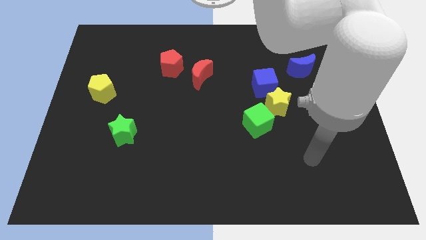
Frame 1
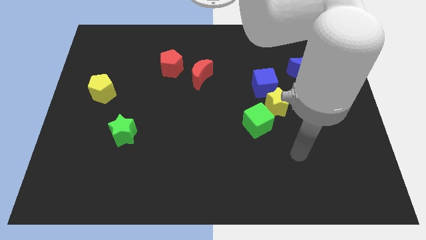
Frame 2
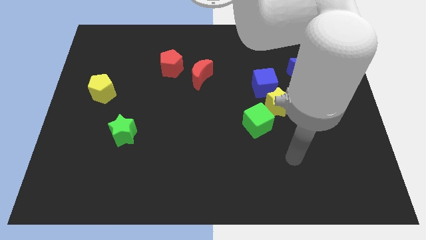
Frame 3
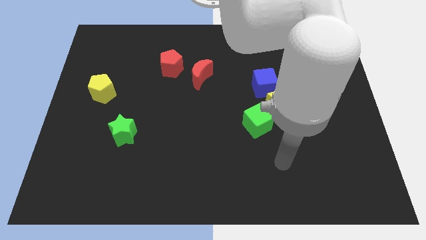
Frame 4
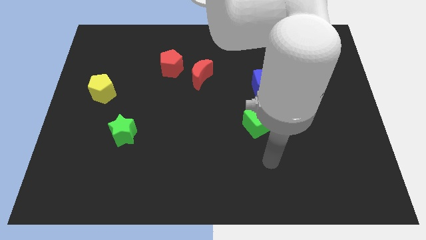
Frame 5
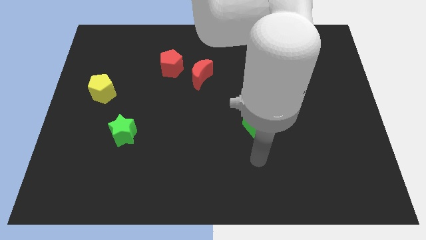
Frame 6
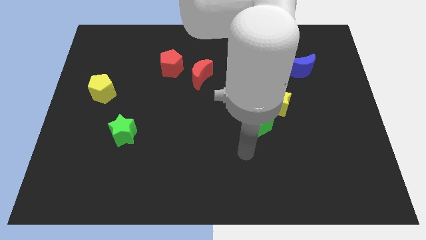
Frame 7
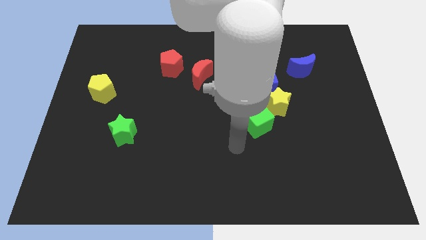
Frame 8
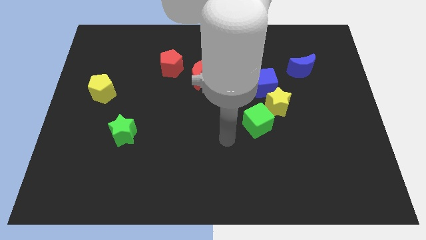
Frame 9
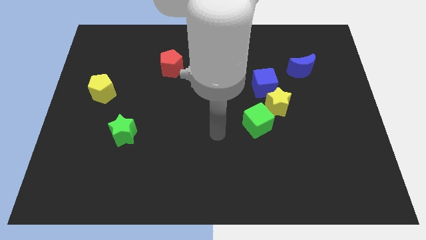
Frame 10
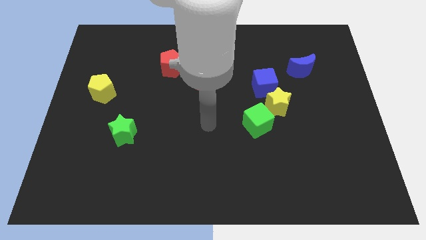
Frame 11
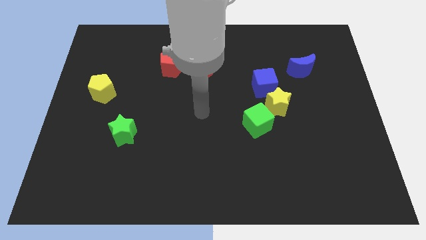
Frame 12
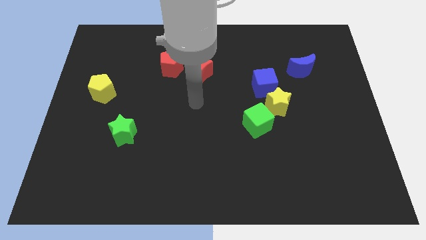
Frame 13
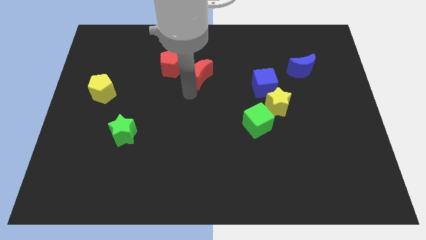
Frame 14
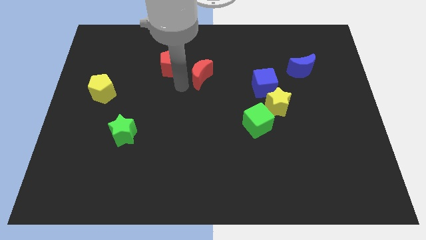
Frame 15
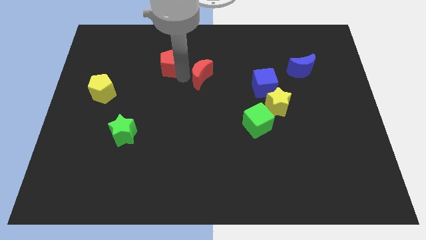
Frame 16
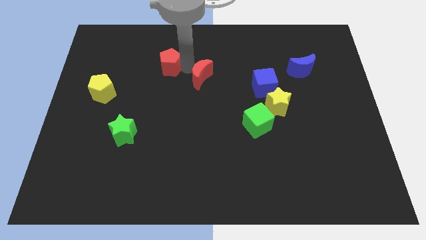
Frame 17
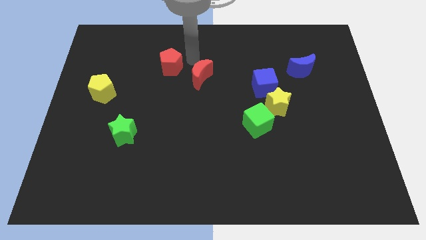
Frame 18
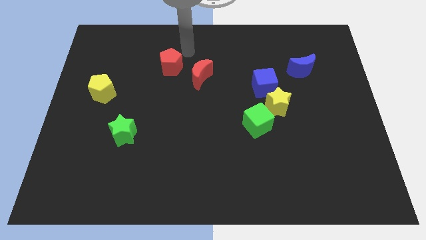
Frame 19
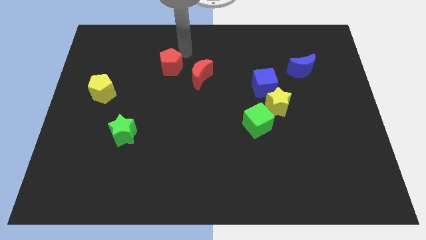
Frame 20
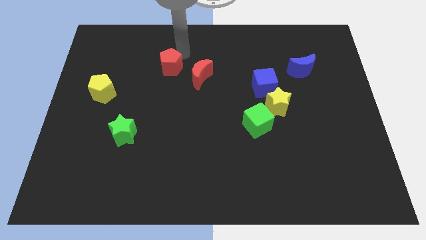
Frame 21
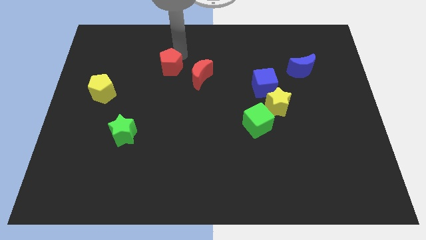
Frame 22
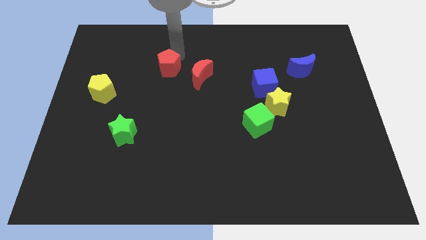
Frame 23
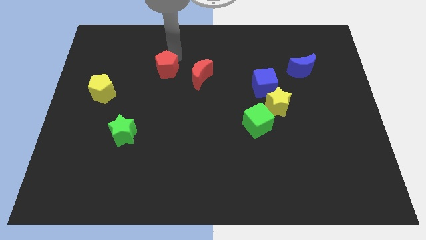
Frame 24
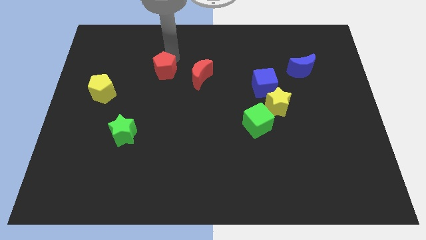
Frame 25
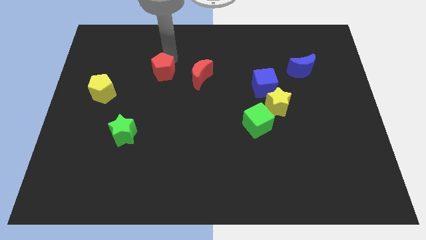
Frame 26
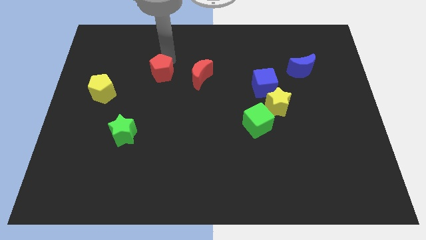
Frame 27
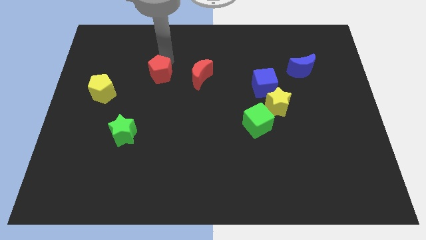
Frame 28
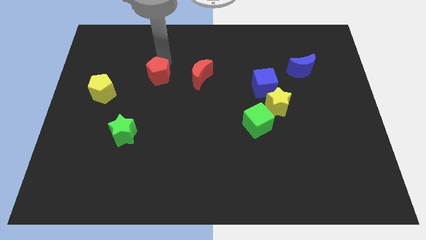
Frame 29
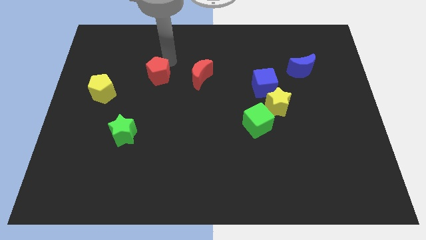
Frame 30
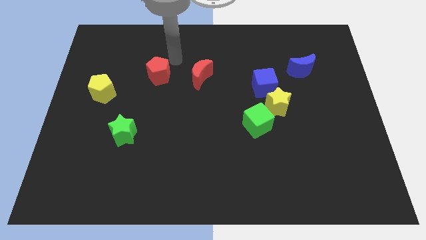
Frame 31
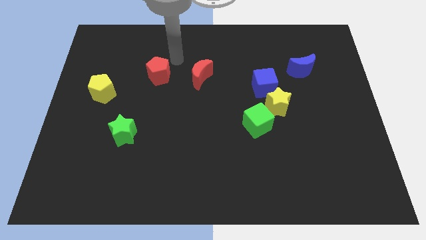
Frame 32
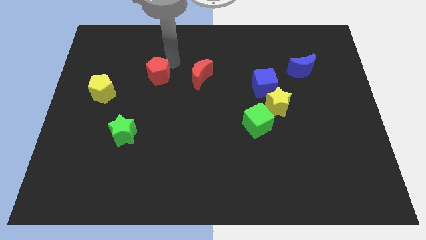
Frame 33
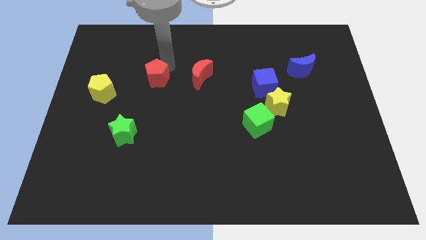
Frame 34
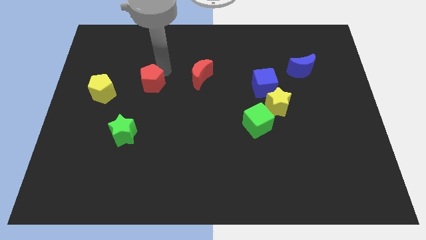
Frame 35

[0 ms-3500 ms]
push the red pentagon somewhat diagonally down and left

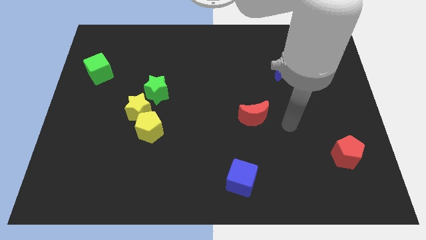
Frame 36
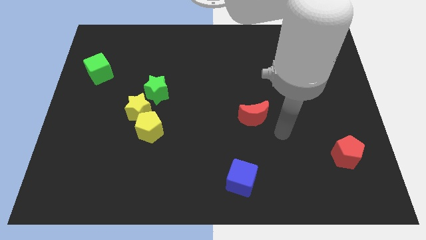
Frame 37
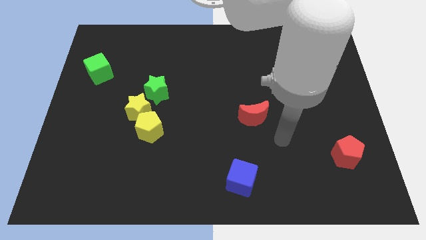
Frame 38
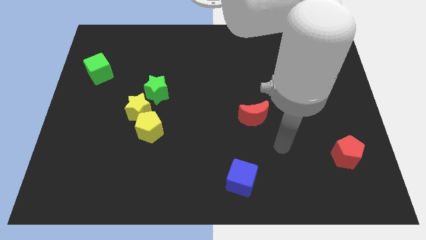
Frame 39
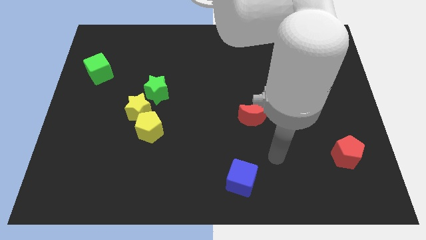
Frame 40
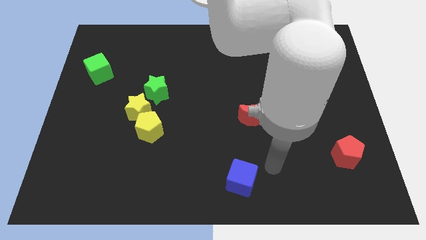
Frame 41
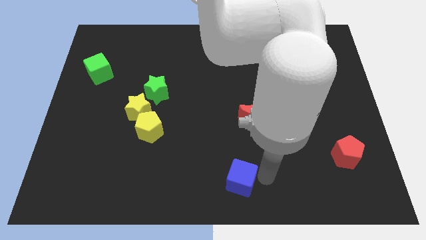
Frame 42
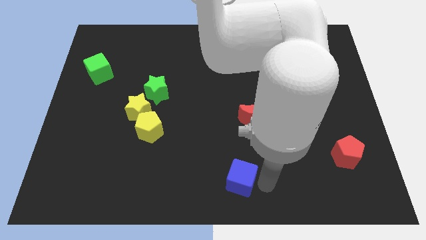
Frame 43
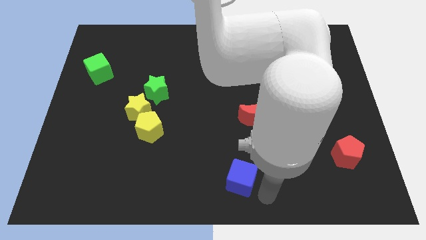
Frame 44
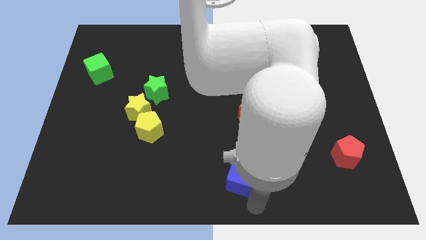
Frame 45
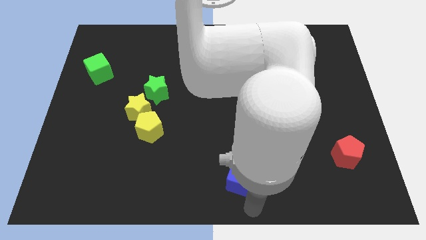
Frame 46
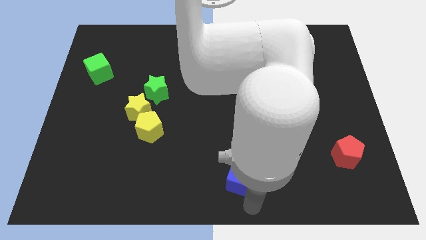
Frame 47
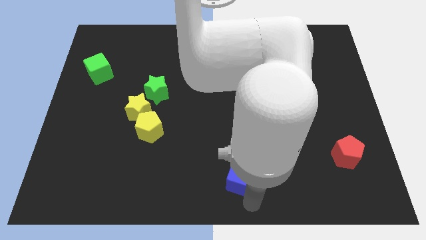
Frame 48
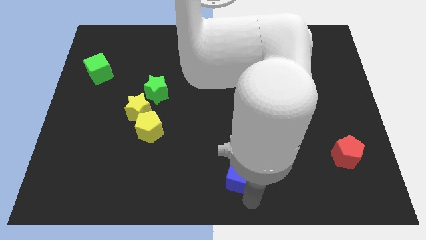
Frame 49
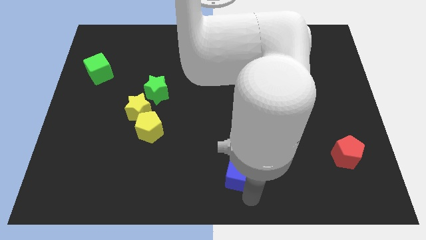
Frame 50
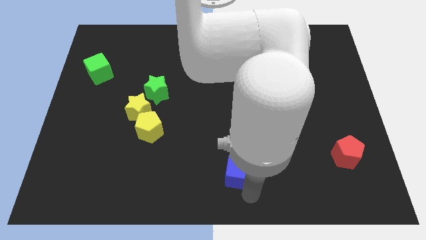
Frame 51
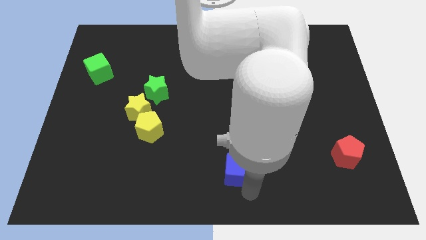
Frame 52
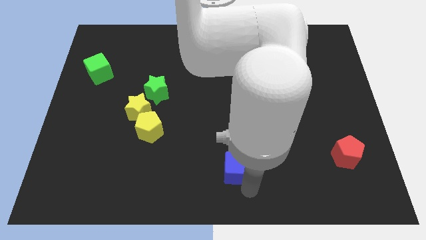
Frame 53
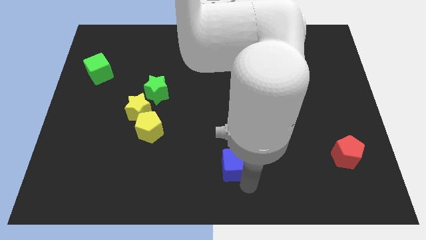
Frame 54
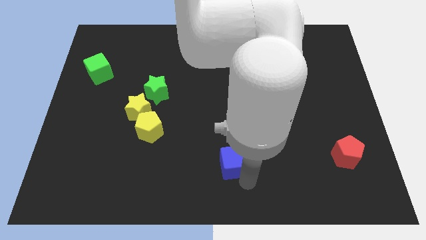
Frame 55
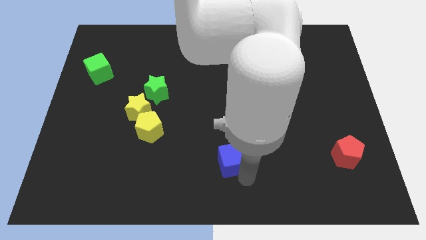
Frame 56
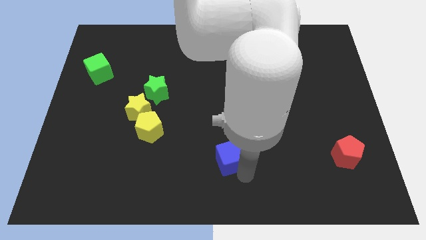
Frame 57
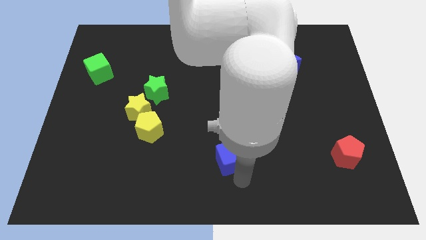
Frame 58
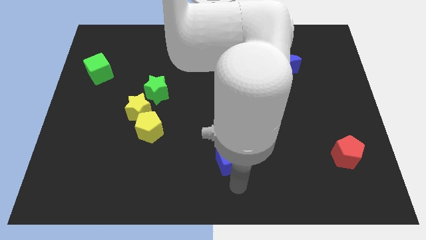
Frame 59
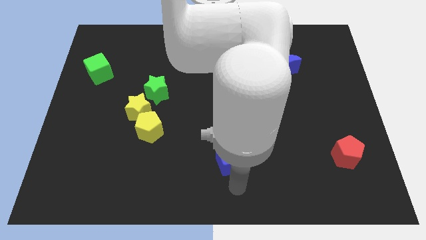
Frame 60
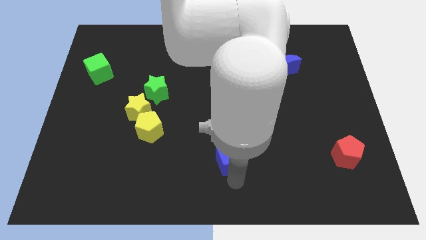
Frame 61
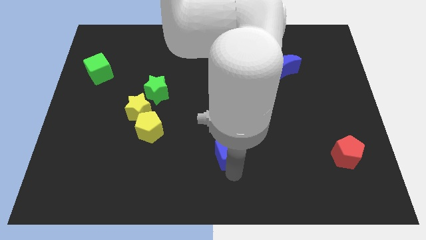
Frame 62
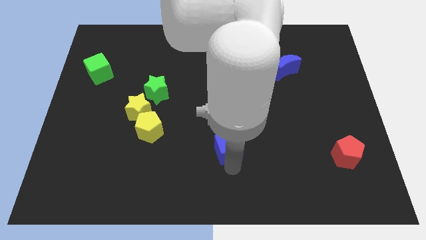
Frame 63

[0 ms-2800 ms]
push the blue cube up somewhat

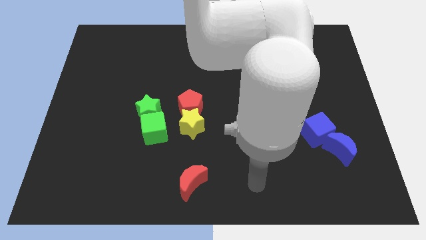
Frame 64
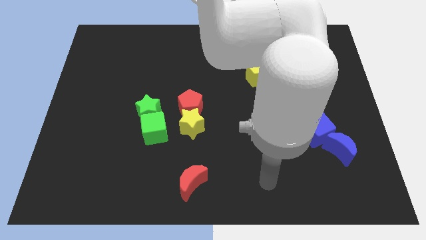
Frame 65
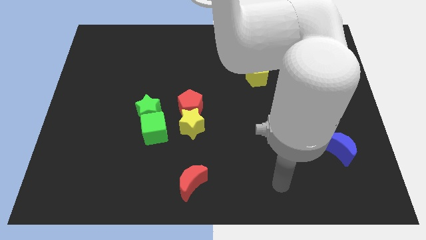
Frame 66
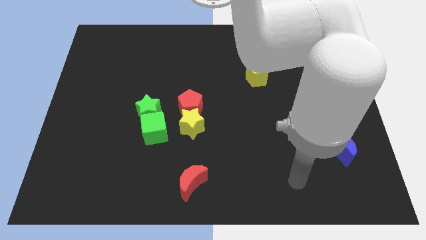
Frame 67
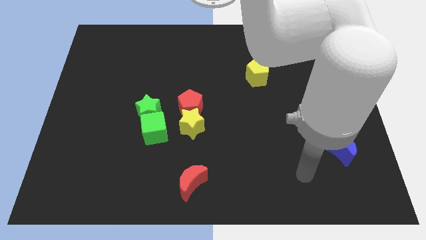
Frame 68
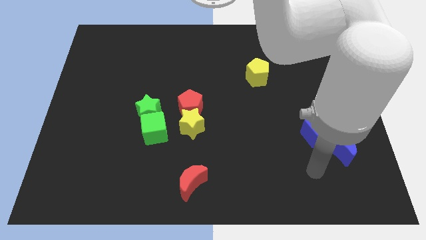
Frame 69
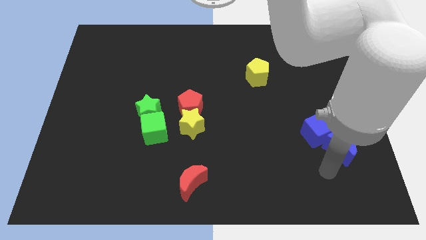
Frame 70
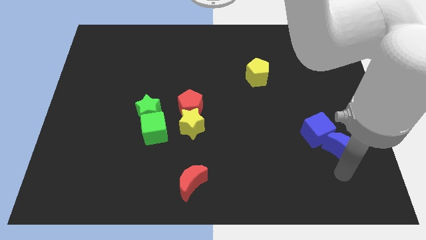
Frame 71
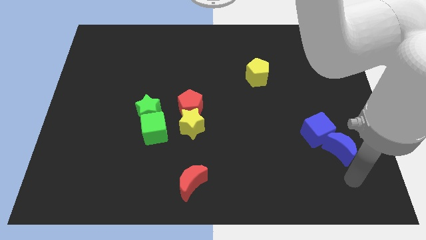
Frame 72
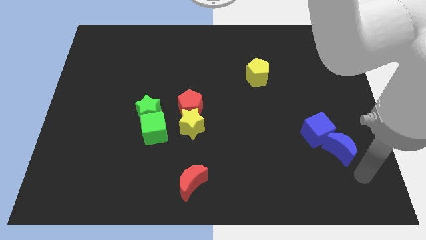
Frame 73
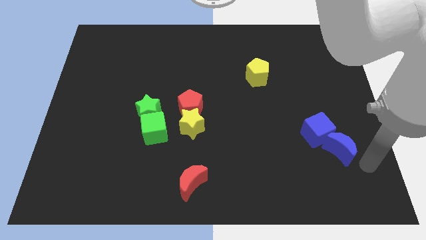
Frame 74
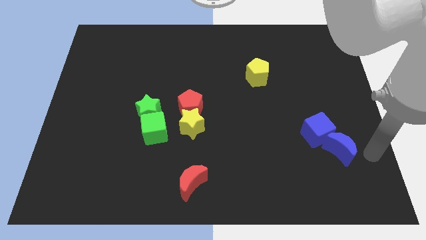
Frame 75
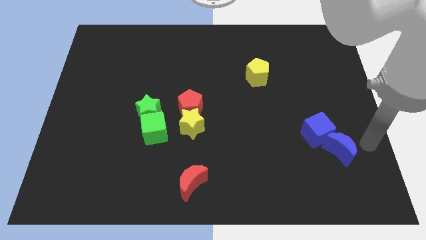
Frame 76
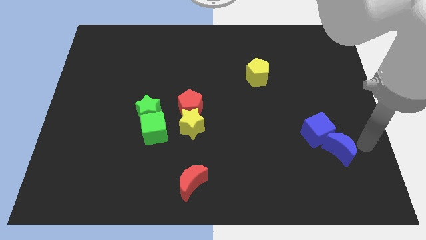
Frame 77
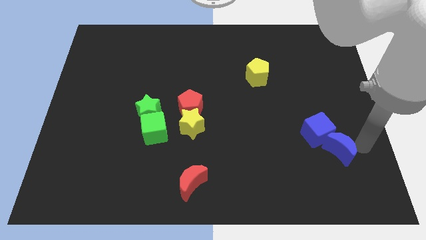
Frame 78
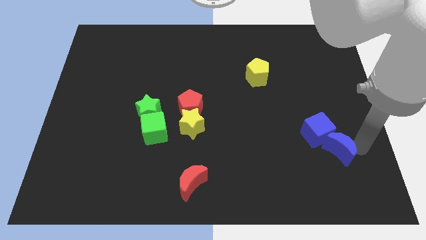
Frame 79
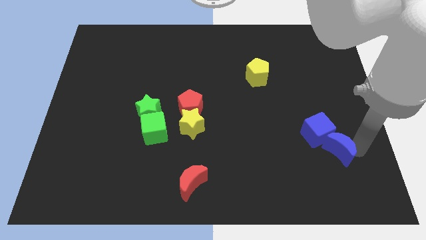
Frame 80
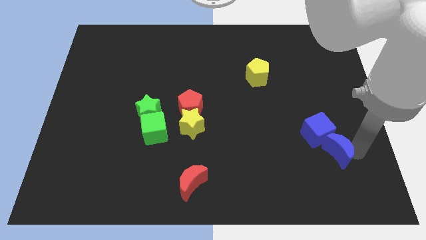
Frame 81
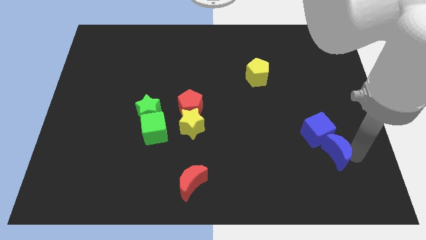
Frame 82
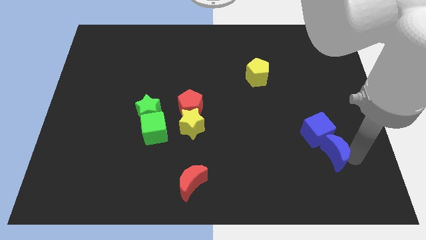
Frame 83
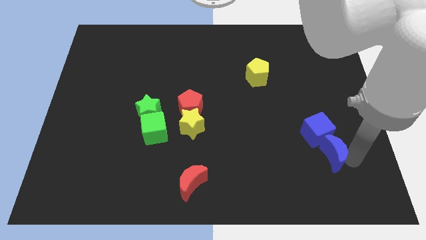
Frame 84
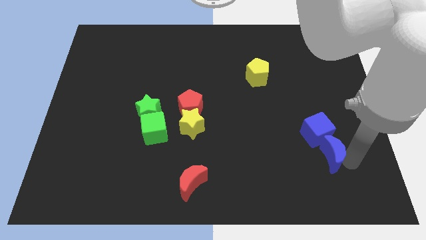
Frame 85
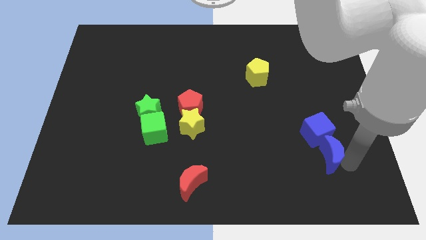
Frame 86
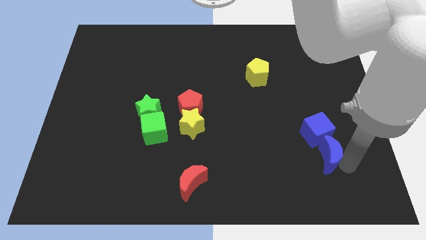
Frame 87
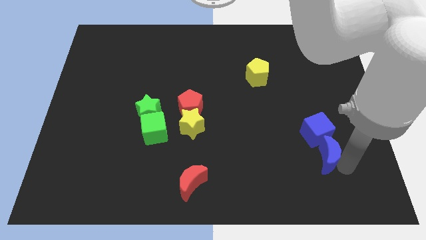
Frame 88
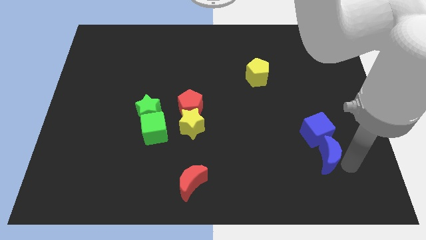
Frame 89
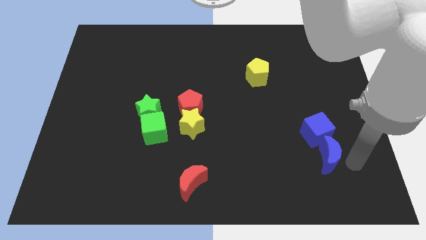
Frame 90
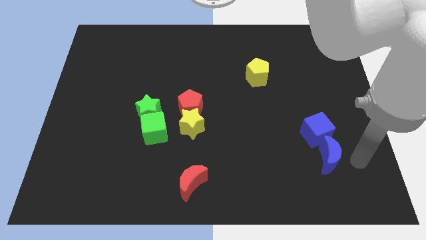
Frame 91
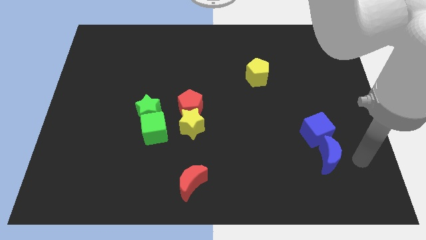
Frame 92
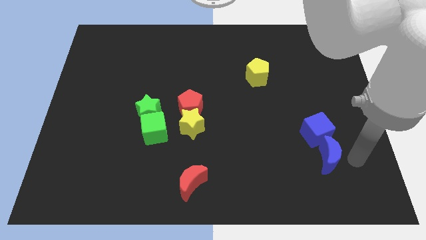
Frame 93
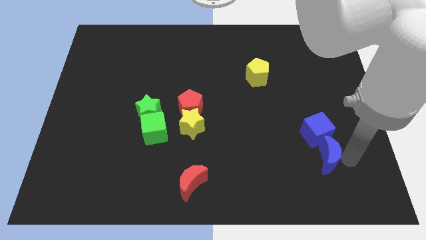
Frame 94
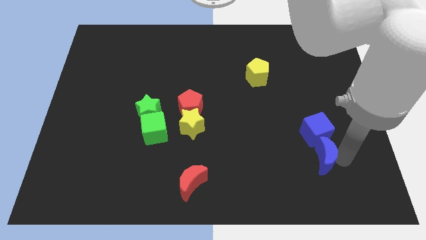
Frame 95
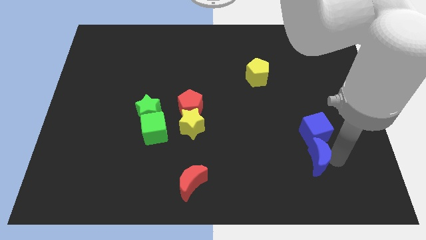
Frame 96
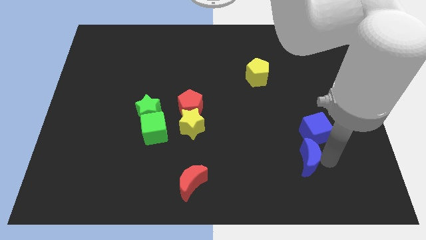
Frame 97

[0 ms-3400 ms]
slightly slide the blue moon left
